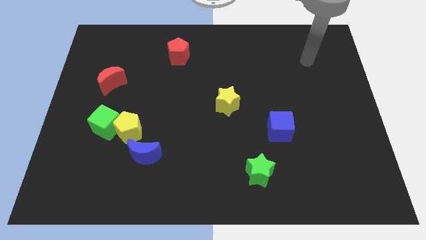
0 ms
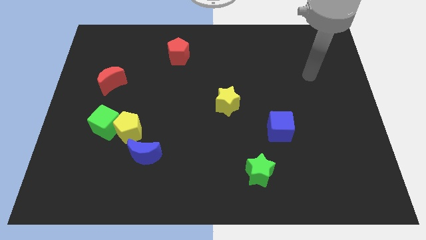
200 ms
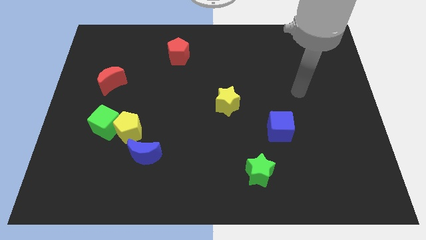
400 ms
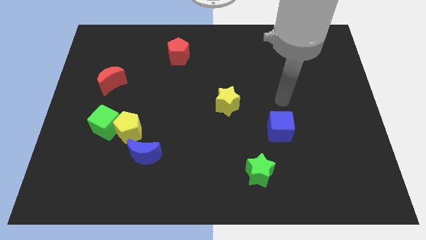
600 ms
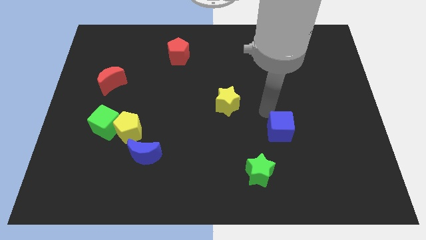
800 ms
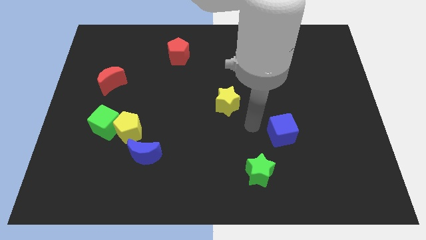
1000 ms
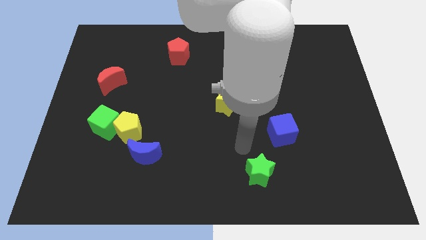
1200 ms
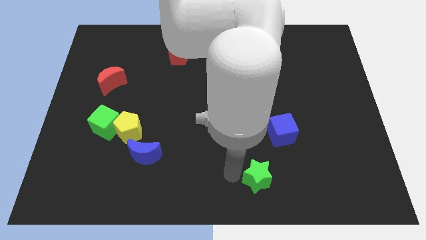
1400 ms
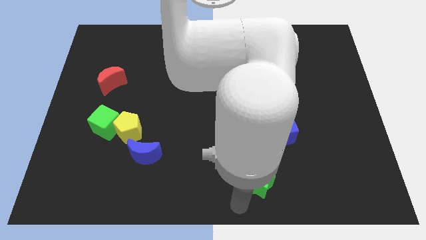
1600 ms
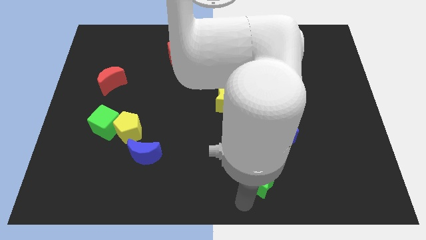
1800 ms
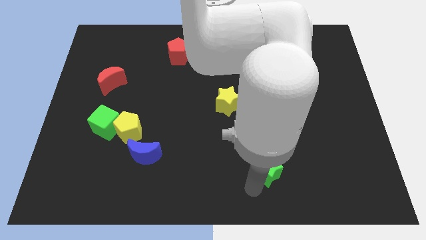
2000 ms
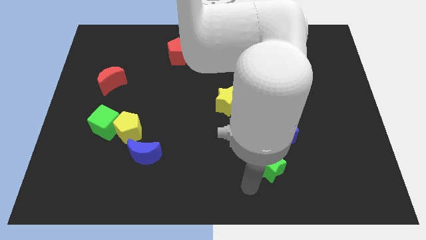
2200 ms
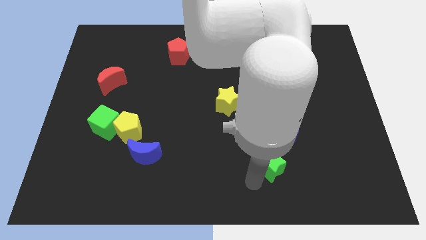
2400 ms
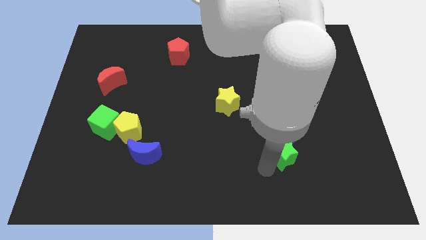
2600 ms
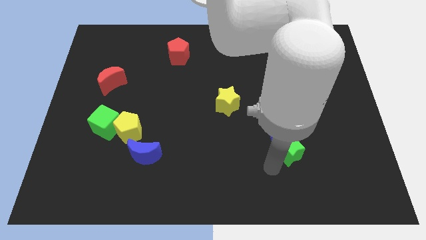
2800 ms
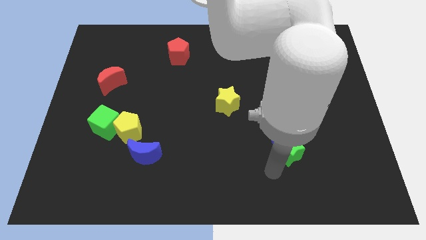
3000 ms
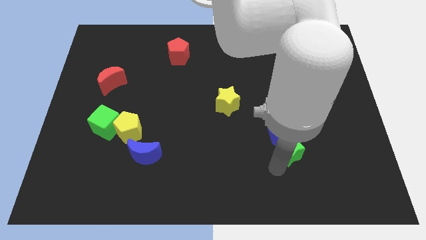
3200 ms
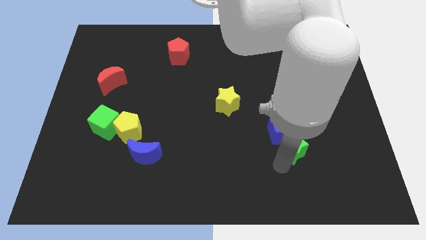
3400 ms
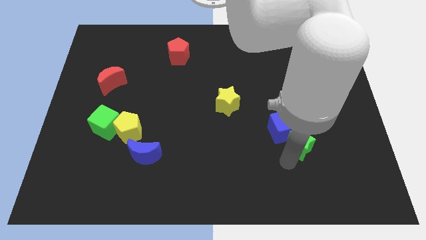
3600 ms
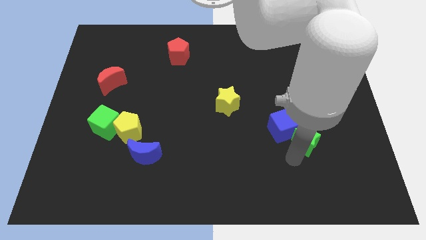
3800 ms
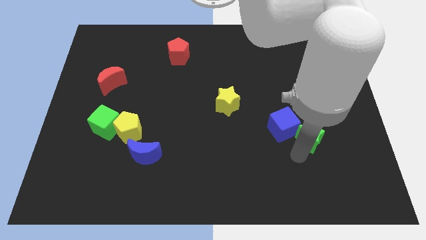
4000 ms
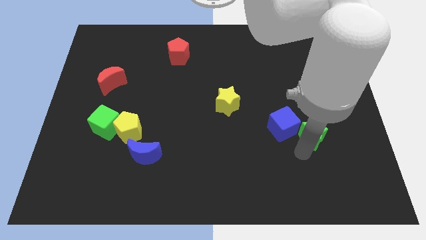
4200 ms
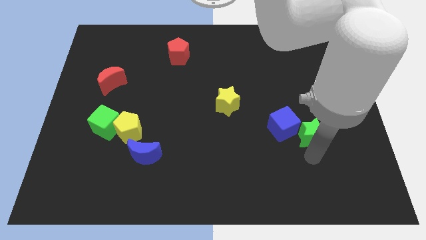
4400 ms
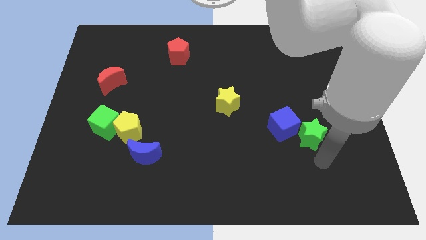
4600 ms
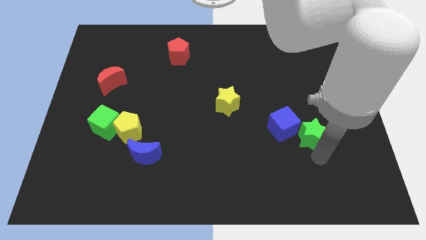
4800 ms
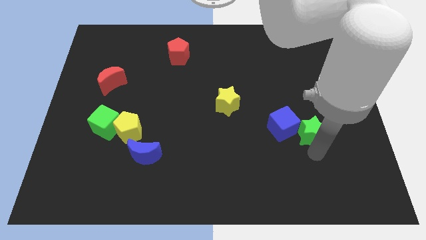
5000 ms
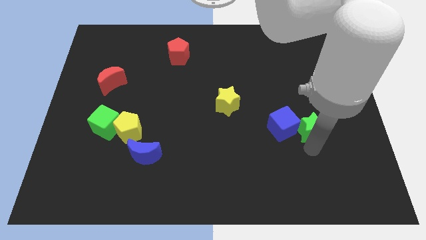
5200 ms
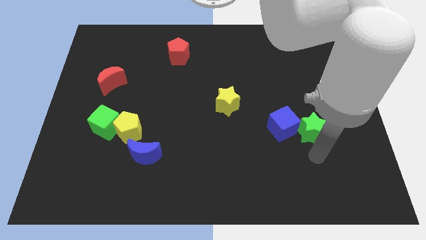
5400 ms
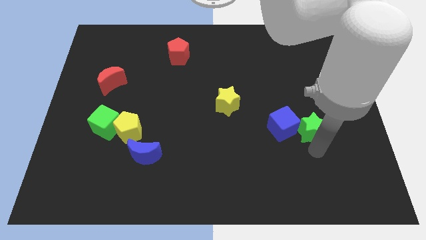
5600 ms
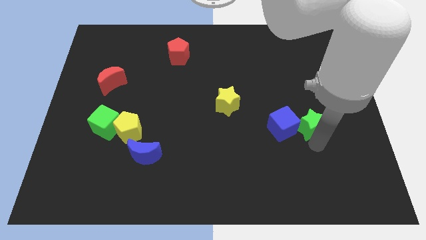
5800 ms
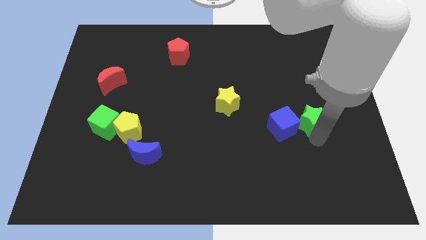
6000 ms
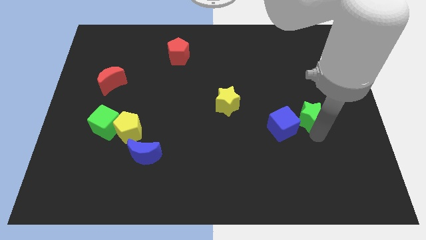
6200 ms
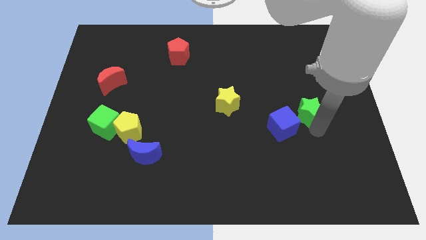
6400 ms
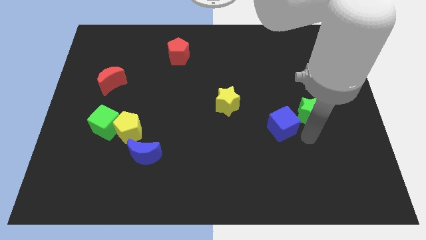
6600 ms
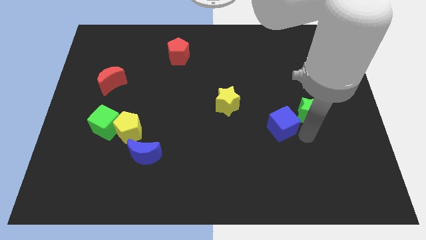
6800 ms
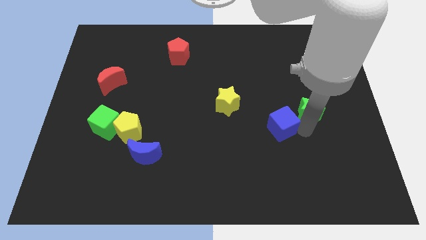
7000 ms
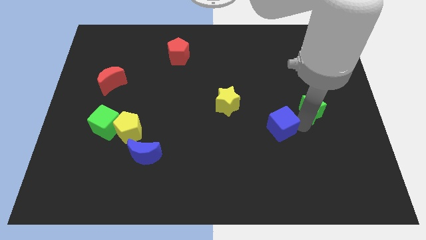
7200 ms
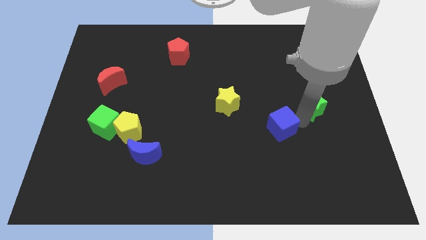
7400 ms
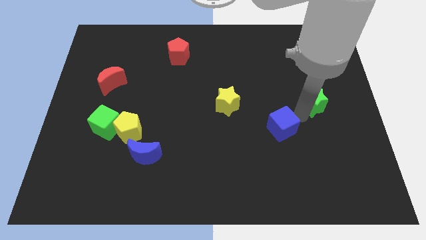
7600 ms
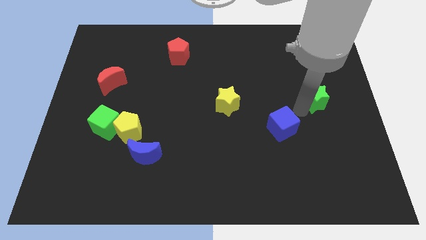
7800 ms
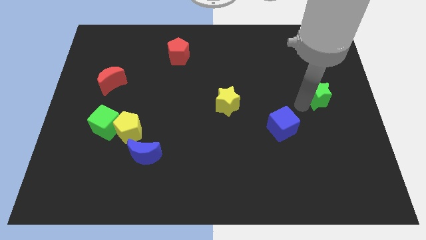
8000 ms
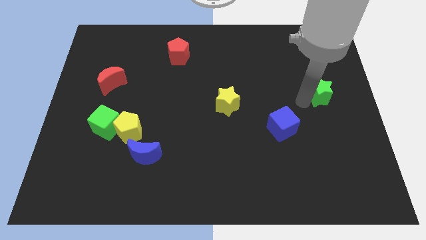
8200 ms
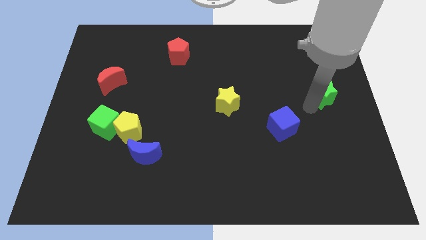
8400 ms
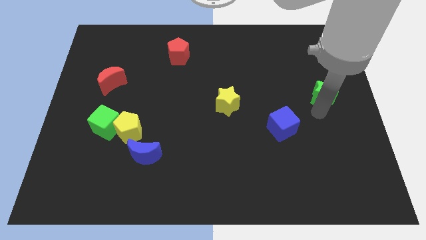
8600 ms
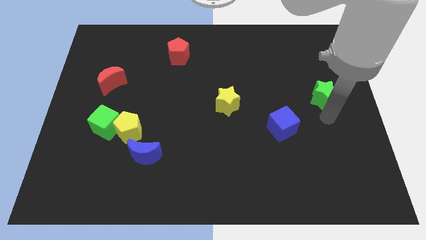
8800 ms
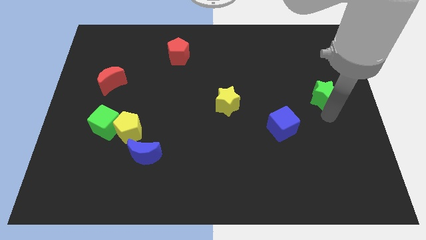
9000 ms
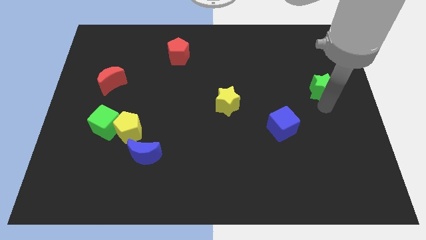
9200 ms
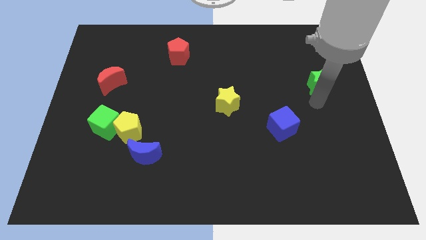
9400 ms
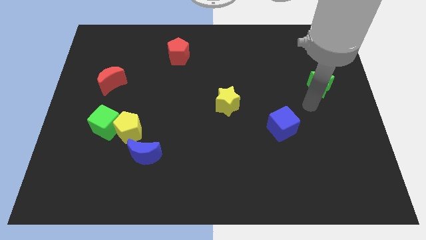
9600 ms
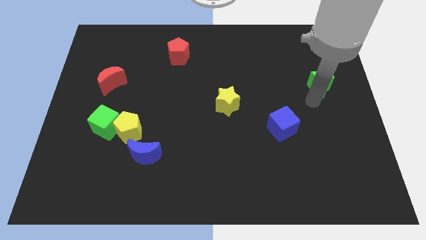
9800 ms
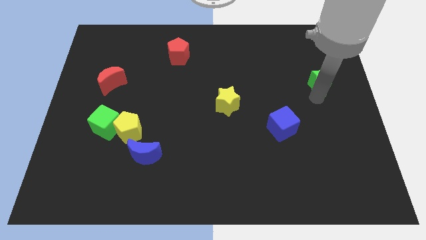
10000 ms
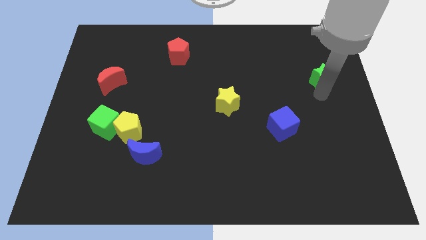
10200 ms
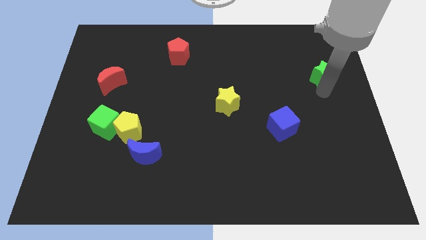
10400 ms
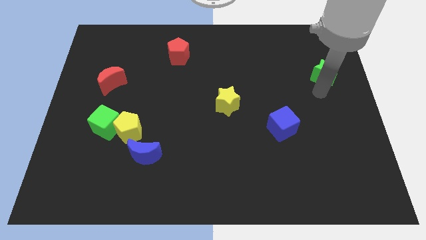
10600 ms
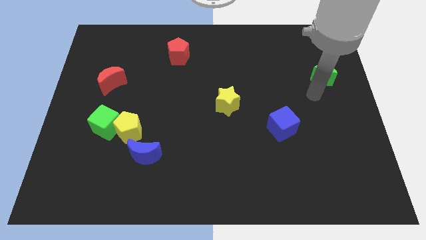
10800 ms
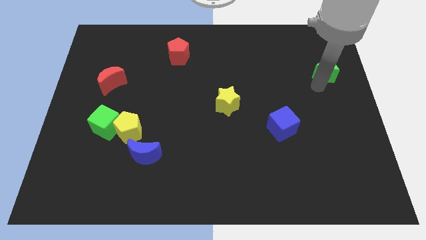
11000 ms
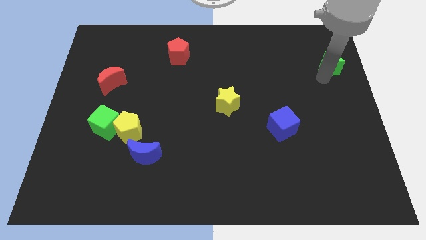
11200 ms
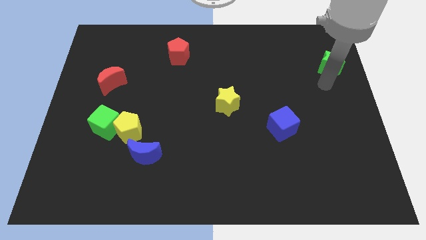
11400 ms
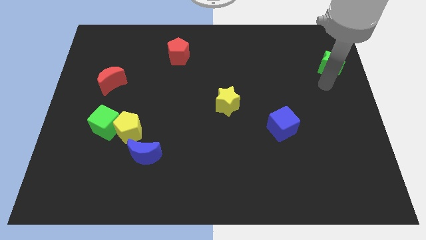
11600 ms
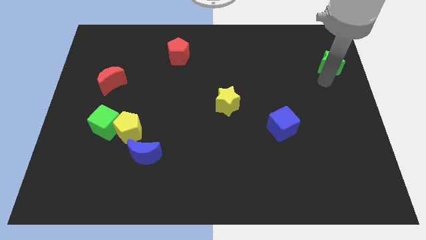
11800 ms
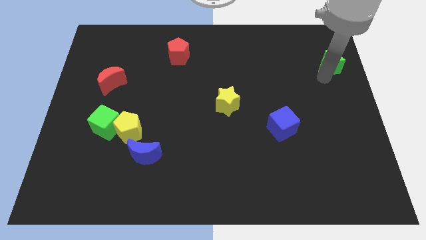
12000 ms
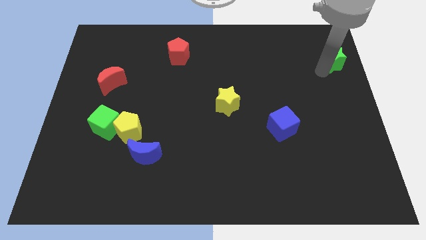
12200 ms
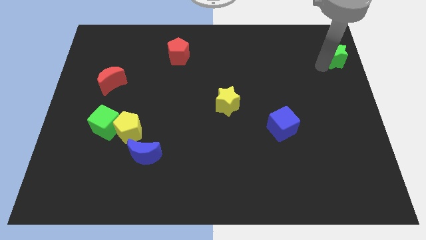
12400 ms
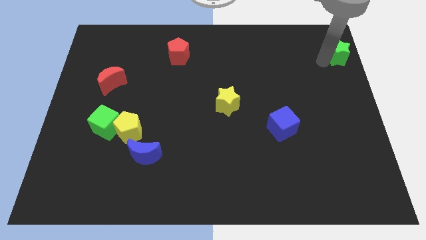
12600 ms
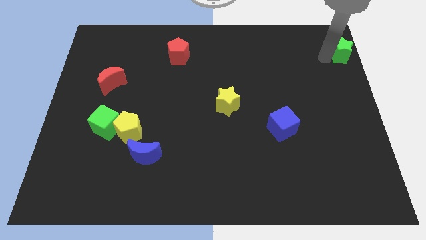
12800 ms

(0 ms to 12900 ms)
move the green star to the top right of the board

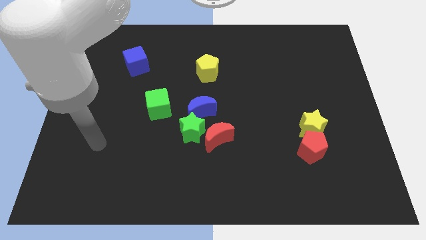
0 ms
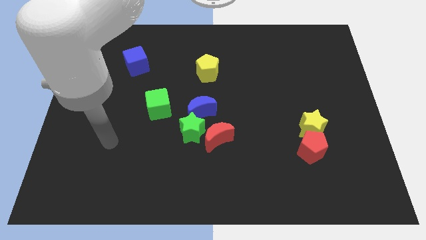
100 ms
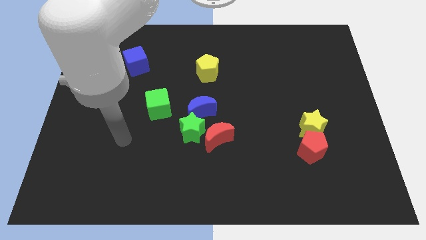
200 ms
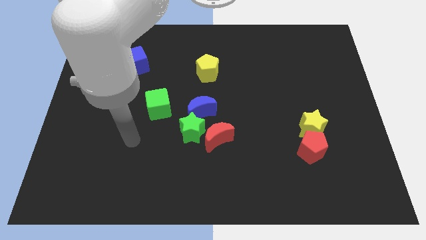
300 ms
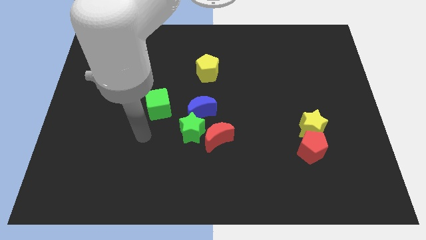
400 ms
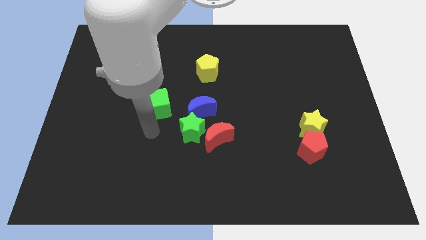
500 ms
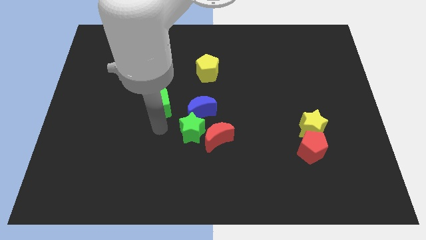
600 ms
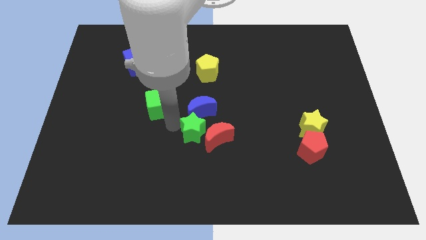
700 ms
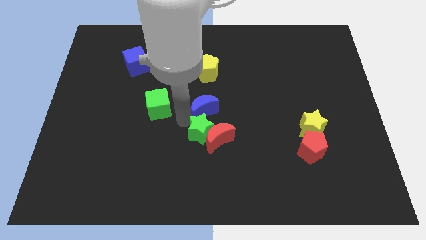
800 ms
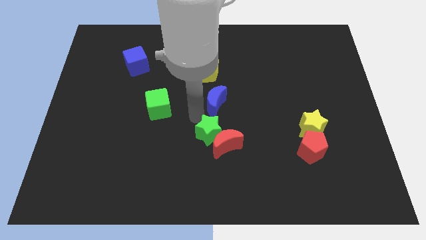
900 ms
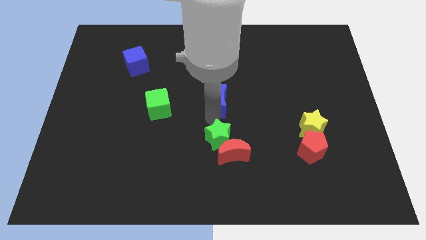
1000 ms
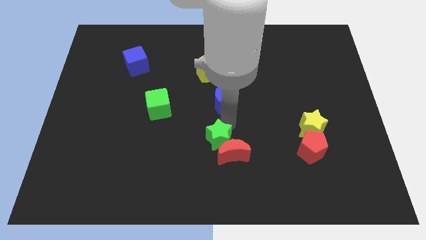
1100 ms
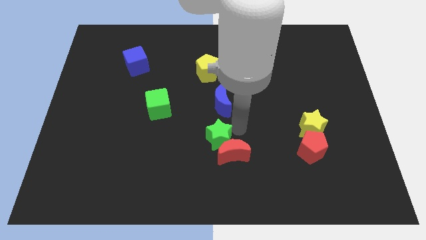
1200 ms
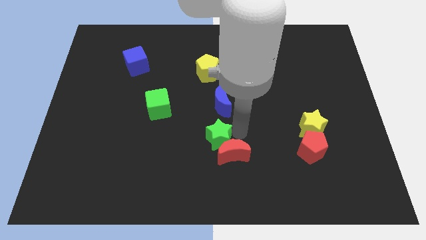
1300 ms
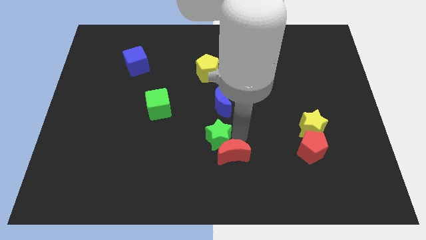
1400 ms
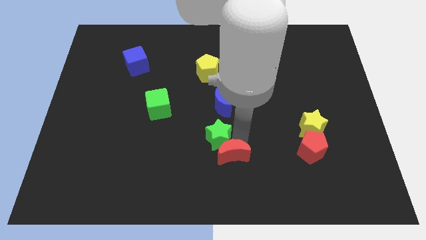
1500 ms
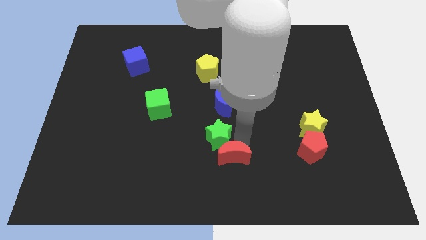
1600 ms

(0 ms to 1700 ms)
slide the red moon to the bottom side
